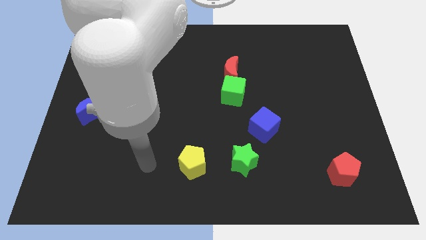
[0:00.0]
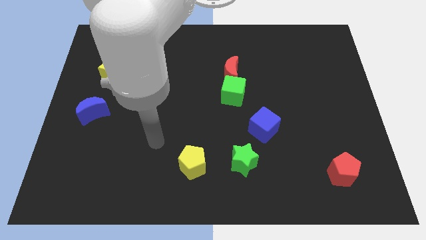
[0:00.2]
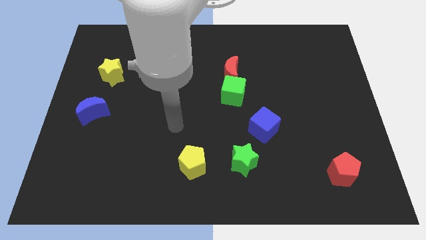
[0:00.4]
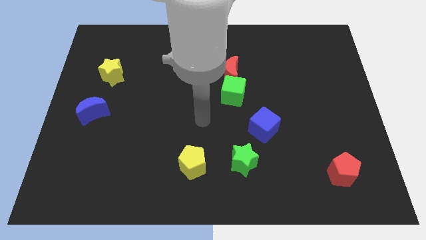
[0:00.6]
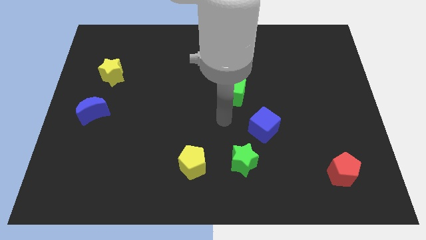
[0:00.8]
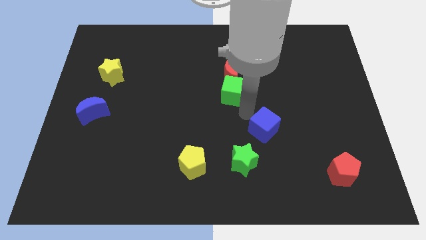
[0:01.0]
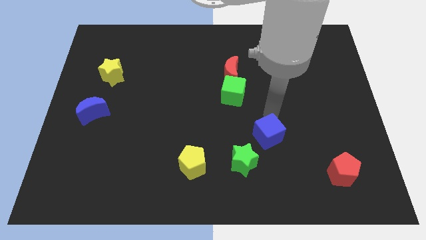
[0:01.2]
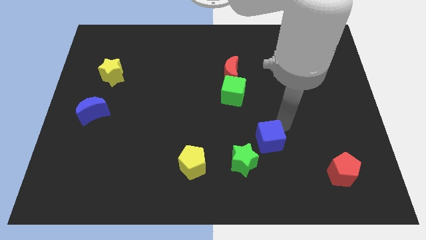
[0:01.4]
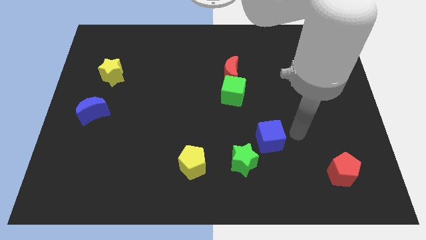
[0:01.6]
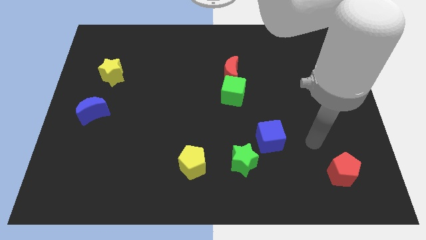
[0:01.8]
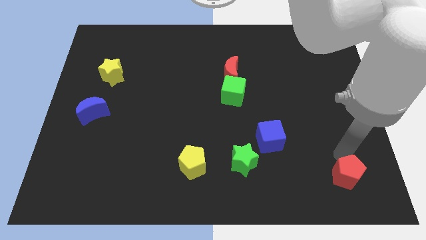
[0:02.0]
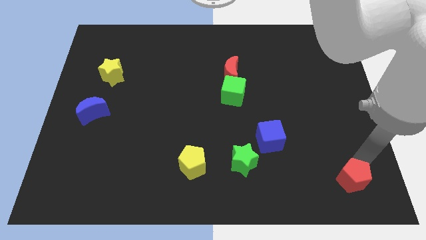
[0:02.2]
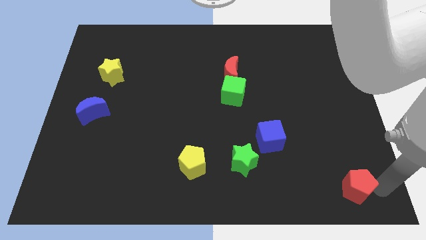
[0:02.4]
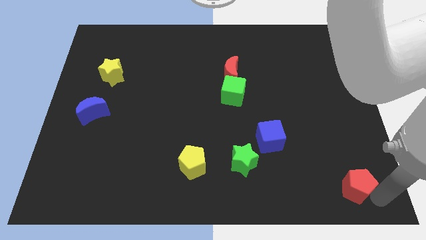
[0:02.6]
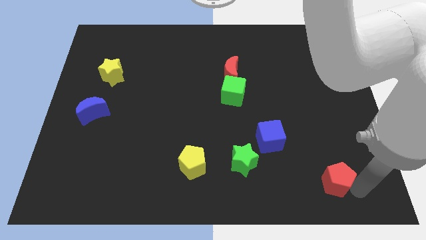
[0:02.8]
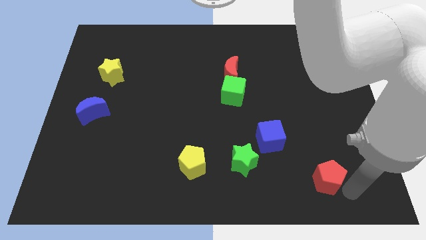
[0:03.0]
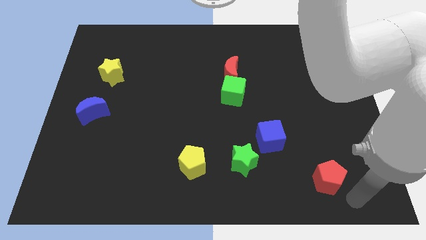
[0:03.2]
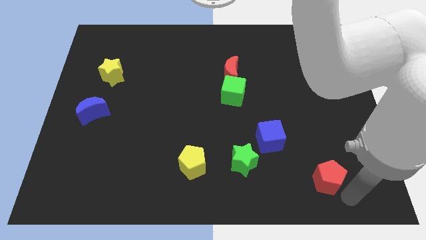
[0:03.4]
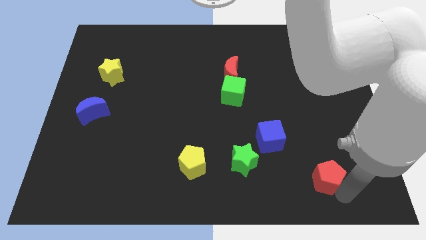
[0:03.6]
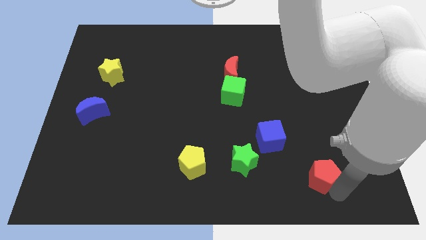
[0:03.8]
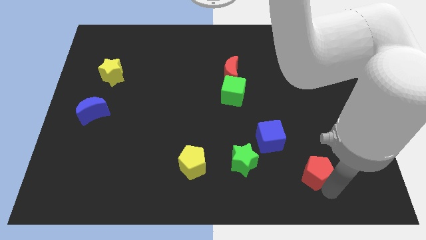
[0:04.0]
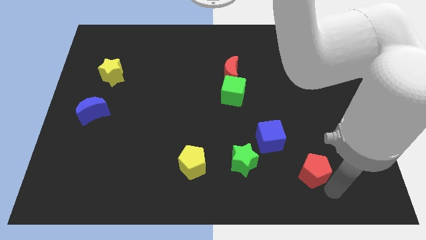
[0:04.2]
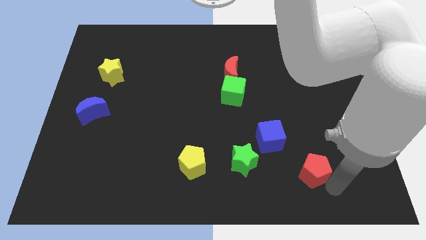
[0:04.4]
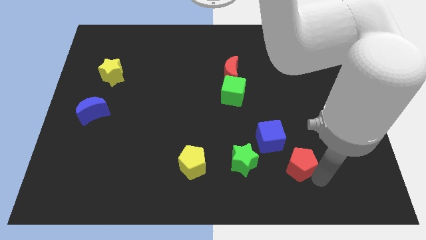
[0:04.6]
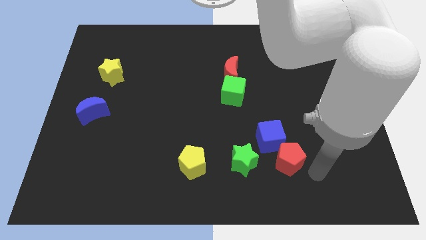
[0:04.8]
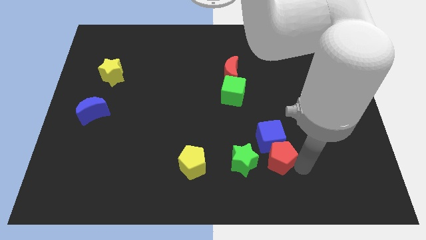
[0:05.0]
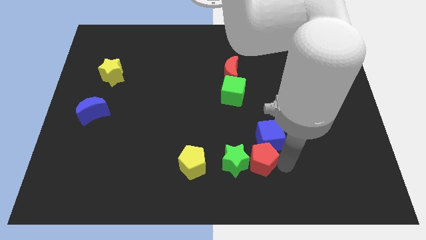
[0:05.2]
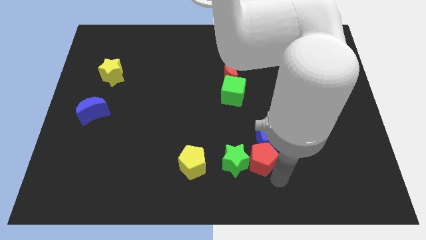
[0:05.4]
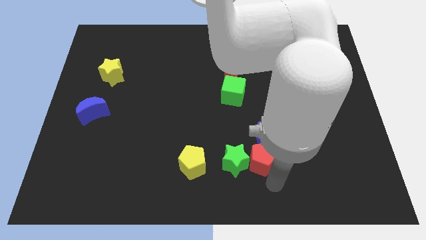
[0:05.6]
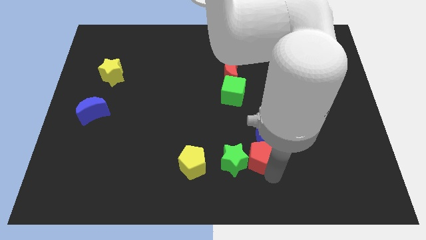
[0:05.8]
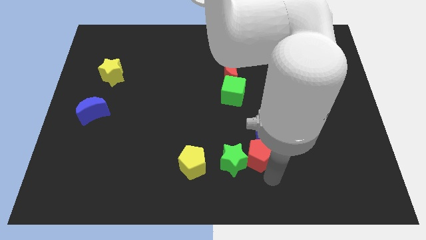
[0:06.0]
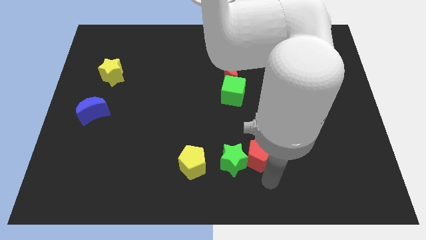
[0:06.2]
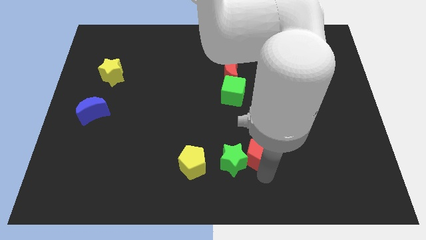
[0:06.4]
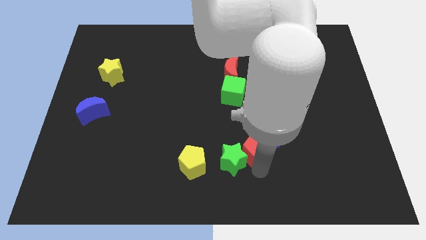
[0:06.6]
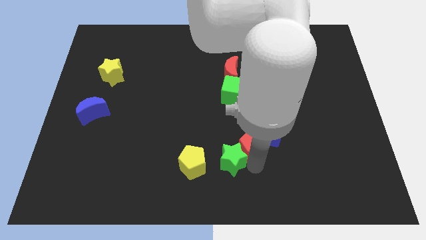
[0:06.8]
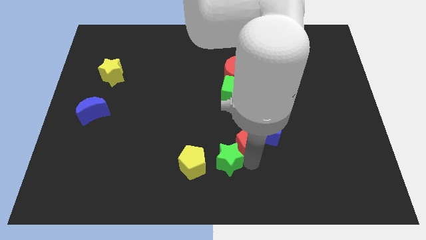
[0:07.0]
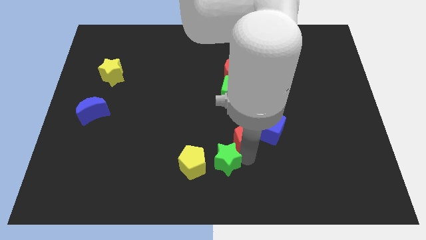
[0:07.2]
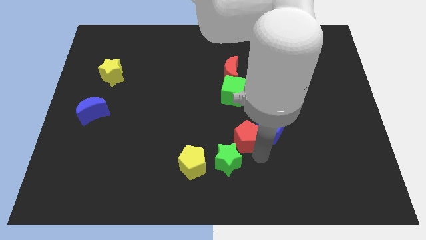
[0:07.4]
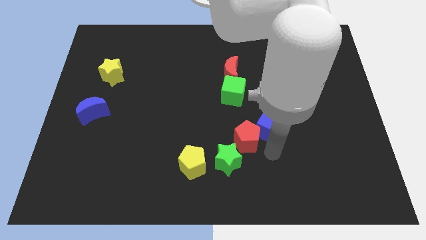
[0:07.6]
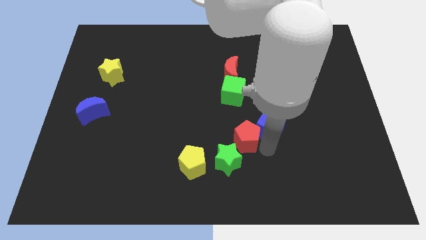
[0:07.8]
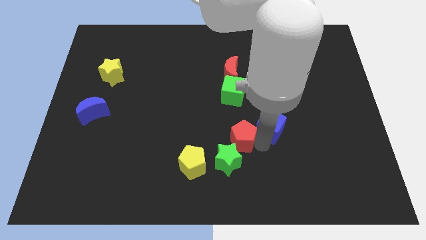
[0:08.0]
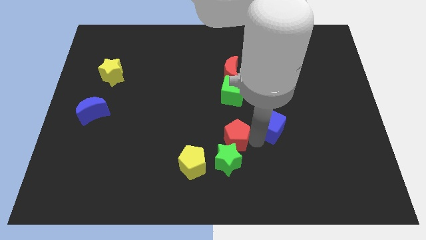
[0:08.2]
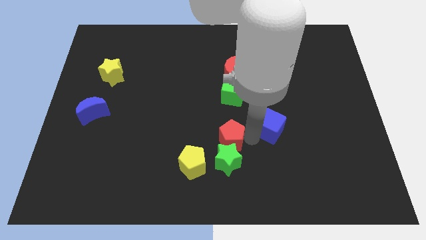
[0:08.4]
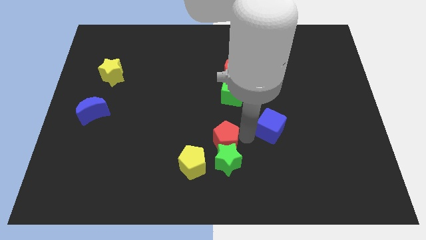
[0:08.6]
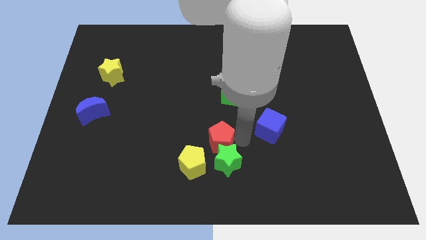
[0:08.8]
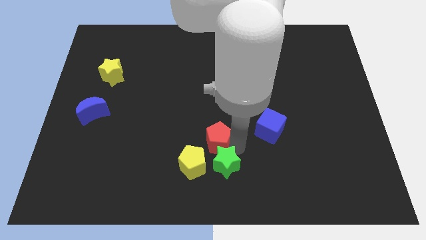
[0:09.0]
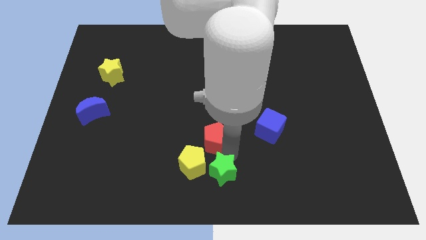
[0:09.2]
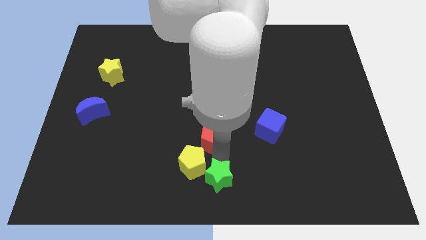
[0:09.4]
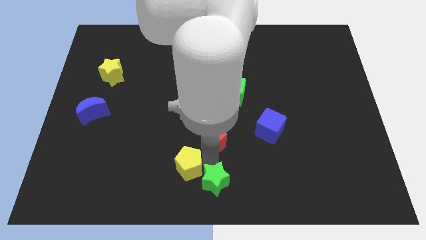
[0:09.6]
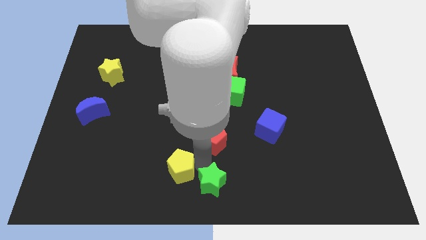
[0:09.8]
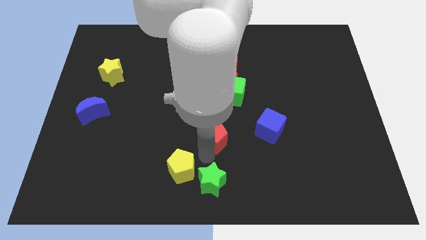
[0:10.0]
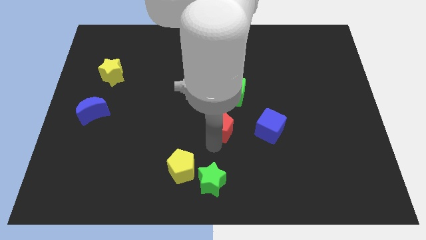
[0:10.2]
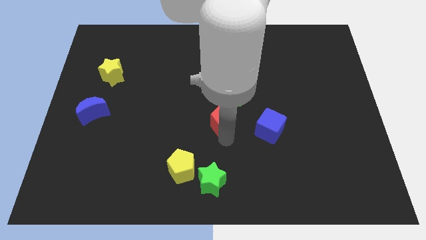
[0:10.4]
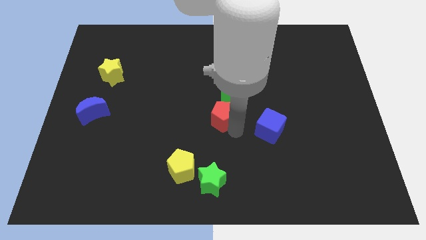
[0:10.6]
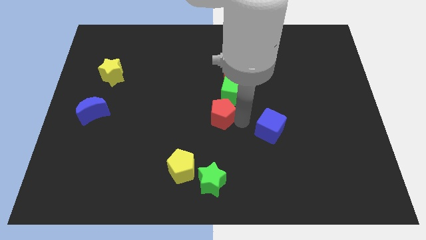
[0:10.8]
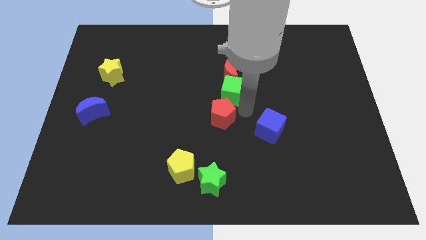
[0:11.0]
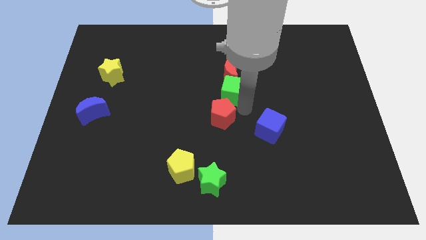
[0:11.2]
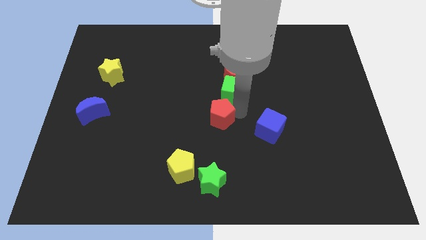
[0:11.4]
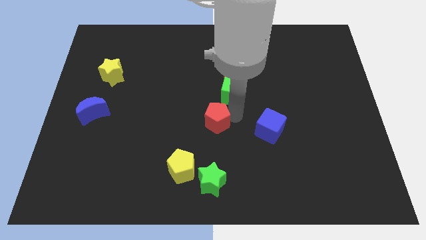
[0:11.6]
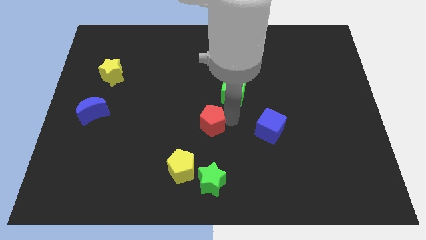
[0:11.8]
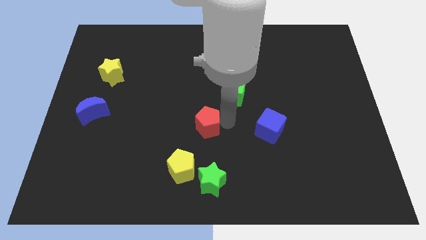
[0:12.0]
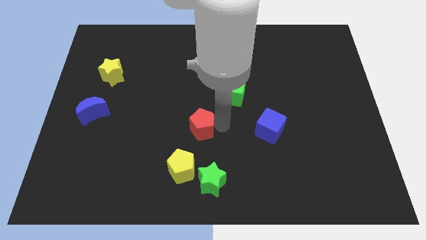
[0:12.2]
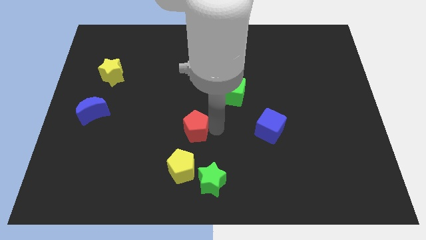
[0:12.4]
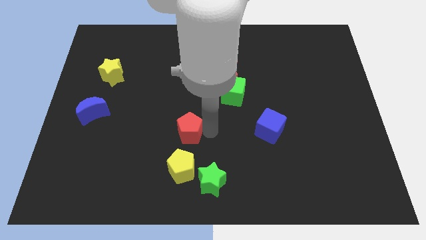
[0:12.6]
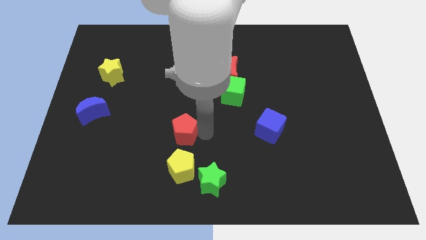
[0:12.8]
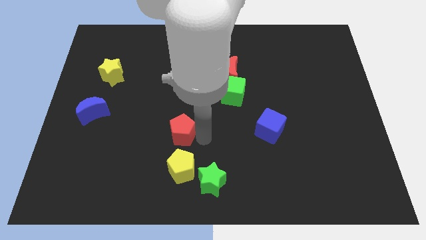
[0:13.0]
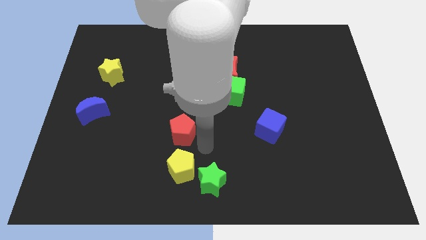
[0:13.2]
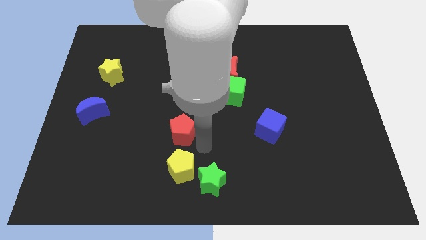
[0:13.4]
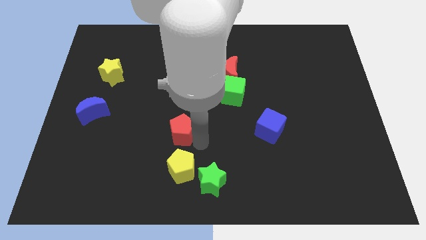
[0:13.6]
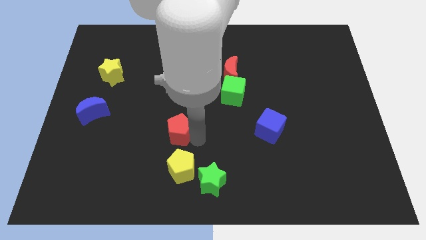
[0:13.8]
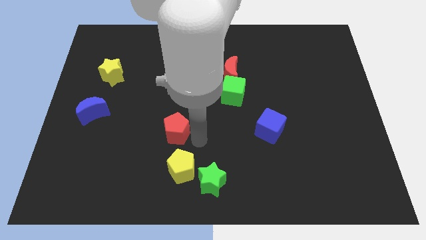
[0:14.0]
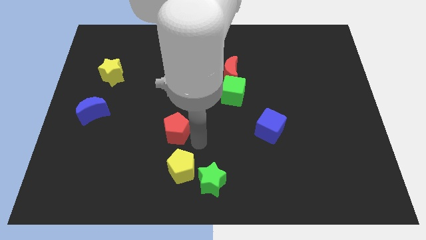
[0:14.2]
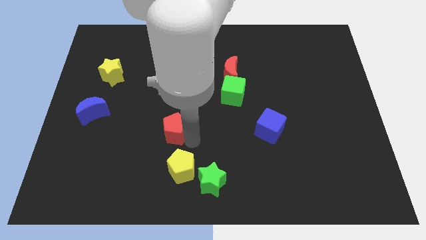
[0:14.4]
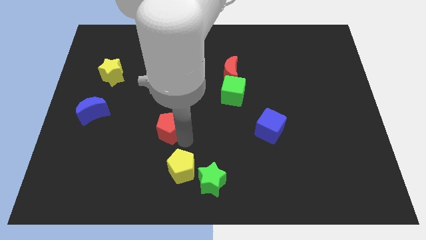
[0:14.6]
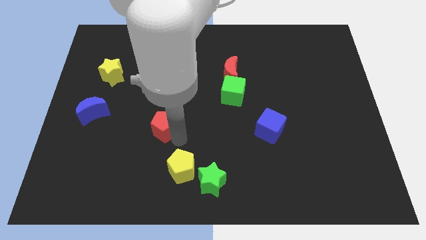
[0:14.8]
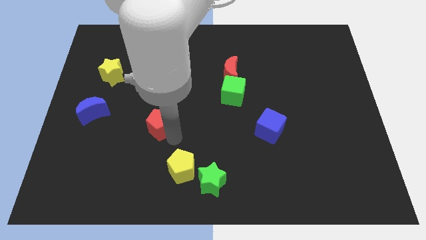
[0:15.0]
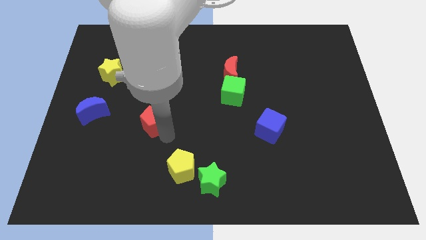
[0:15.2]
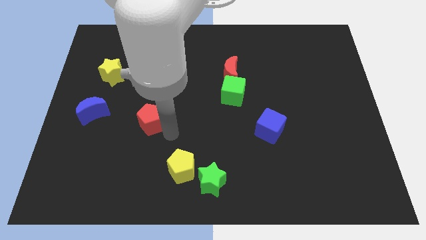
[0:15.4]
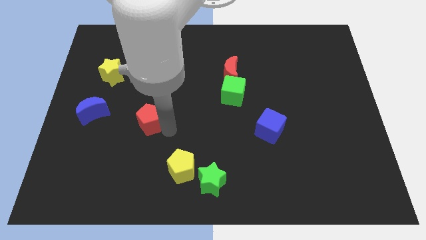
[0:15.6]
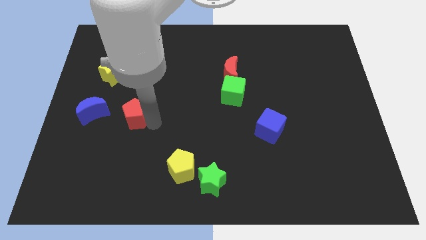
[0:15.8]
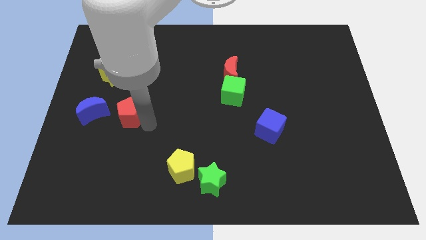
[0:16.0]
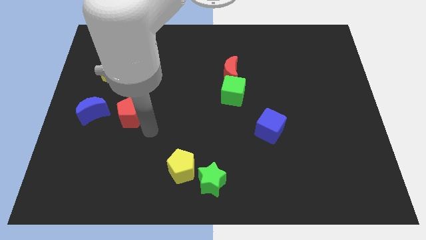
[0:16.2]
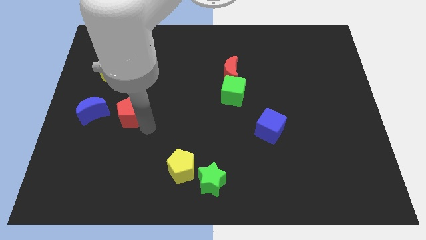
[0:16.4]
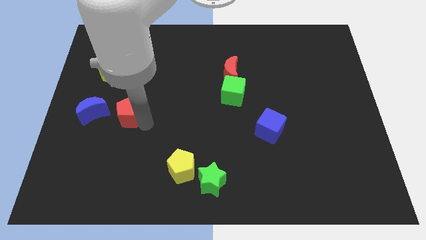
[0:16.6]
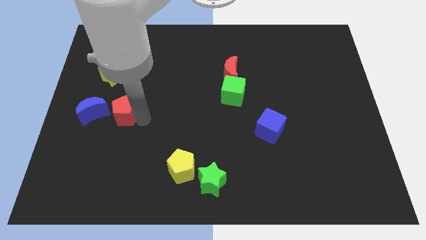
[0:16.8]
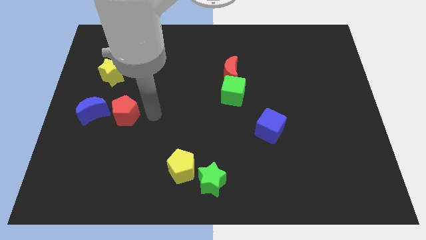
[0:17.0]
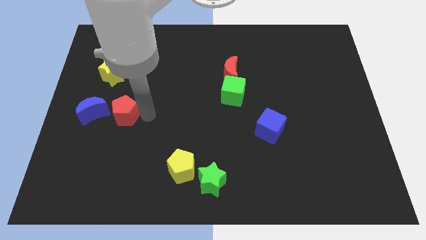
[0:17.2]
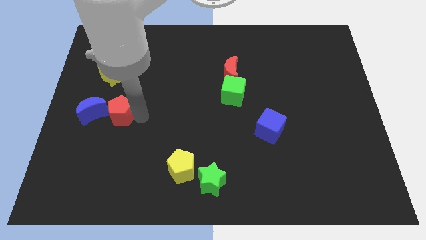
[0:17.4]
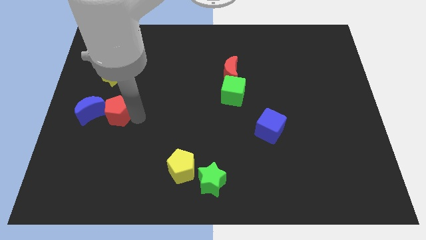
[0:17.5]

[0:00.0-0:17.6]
put the red pentagon to the blue moon
